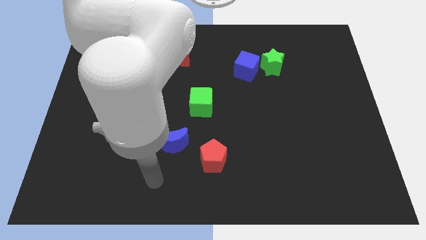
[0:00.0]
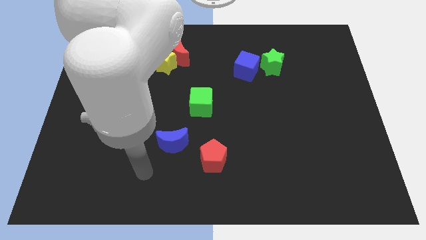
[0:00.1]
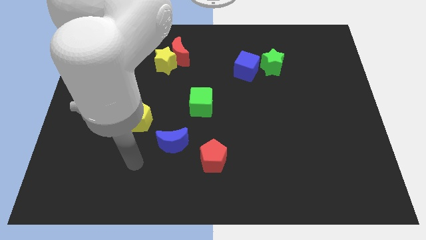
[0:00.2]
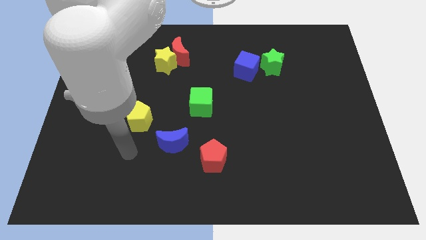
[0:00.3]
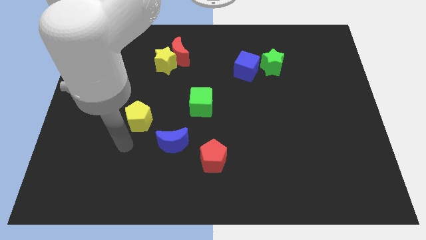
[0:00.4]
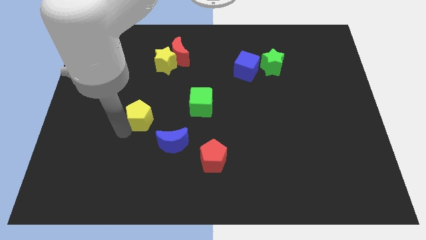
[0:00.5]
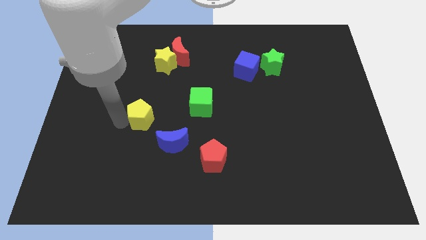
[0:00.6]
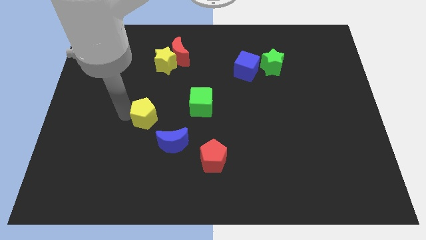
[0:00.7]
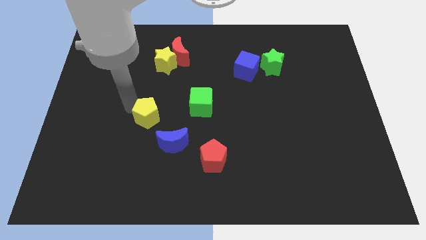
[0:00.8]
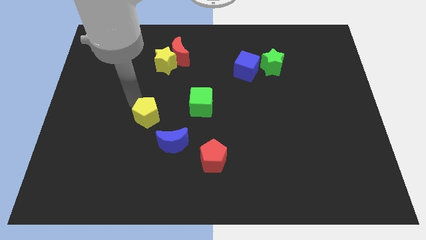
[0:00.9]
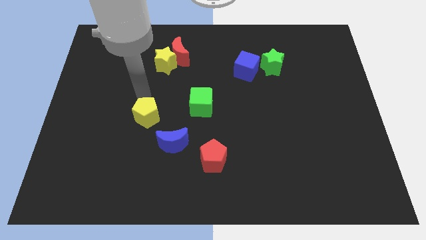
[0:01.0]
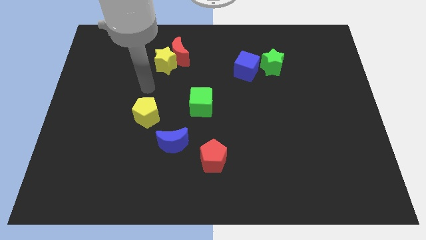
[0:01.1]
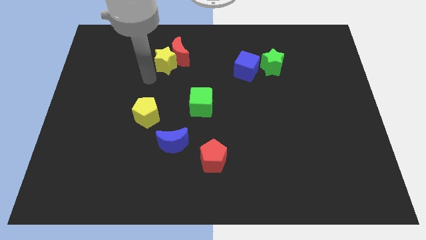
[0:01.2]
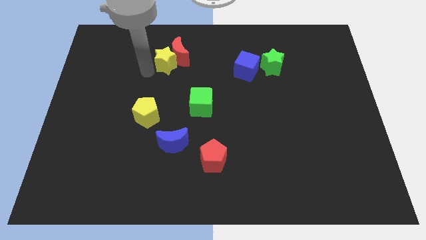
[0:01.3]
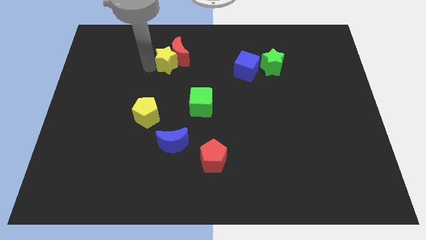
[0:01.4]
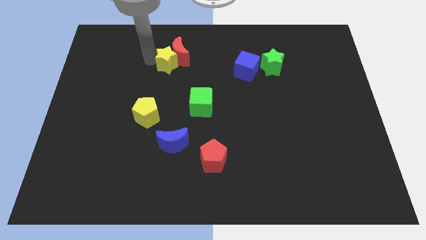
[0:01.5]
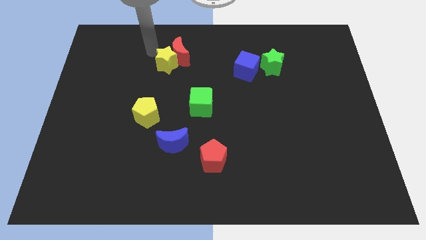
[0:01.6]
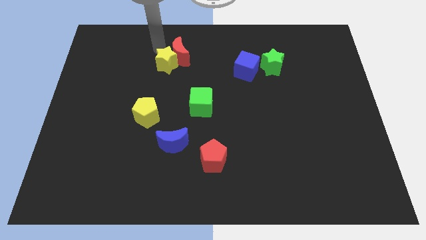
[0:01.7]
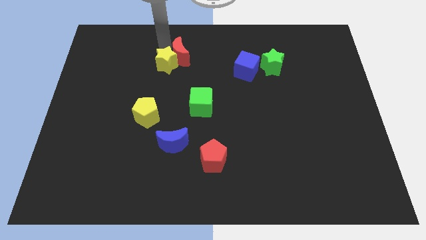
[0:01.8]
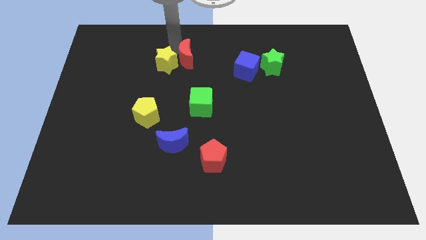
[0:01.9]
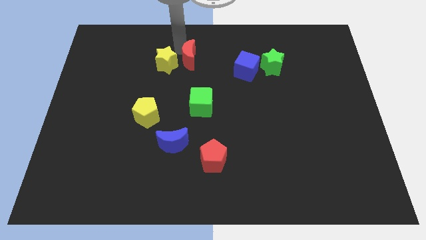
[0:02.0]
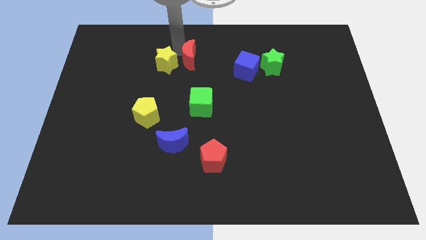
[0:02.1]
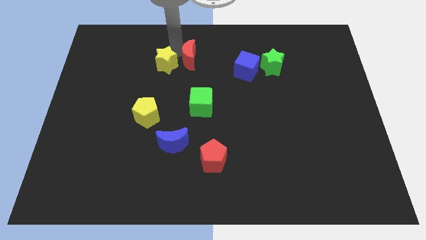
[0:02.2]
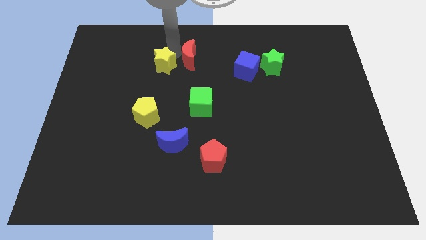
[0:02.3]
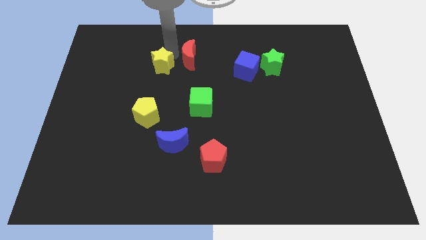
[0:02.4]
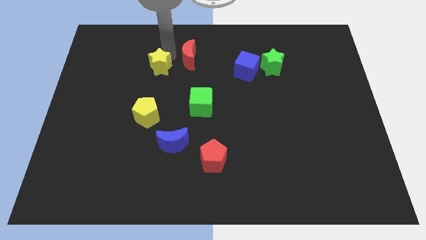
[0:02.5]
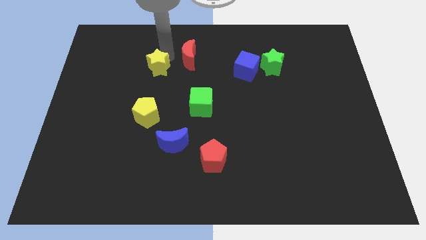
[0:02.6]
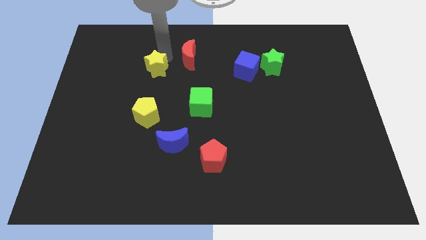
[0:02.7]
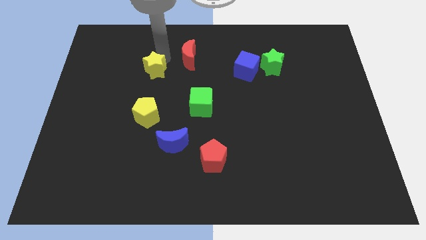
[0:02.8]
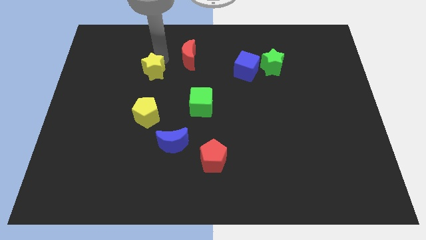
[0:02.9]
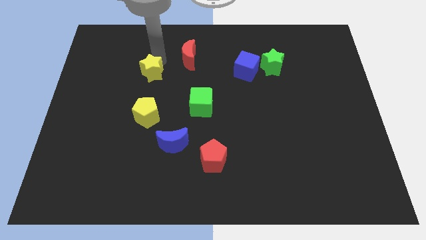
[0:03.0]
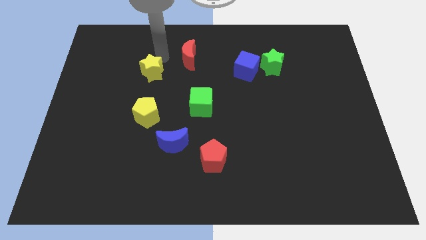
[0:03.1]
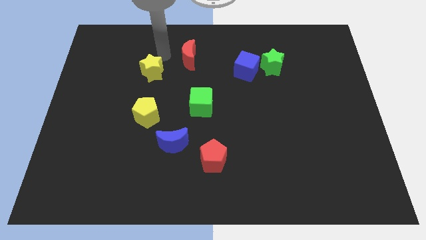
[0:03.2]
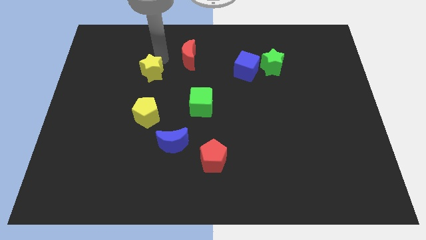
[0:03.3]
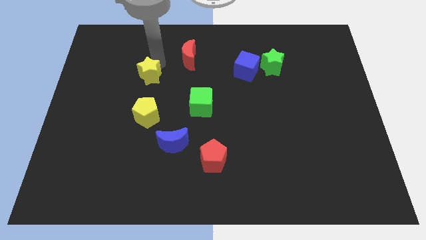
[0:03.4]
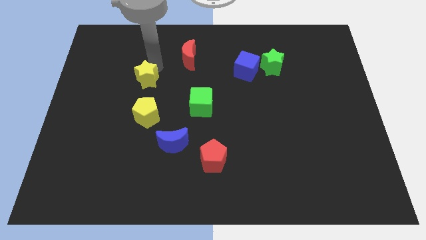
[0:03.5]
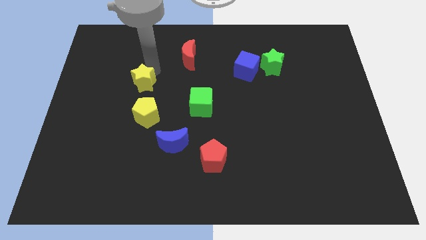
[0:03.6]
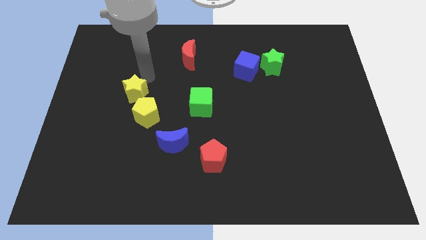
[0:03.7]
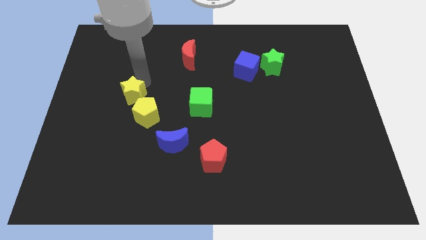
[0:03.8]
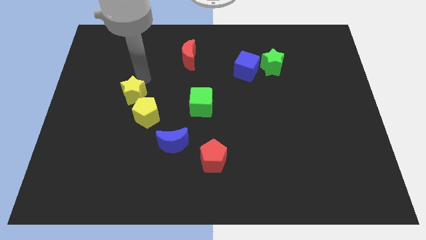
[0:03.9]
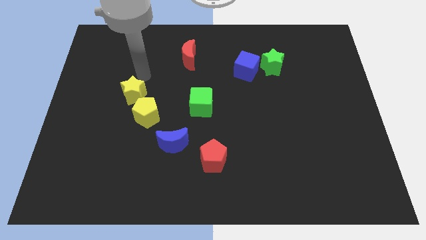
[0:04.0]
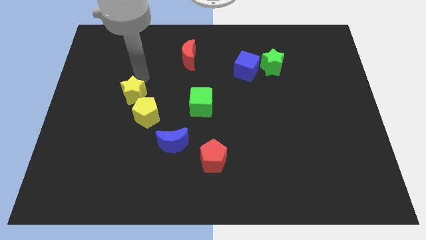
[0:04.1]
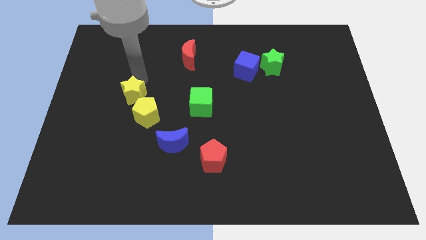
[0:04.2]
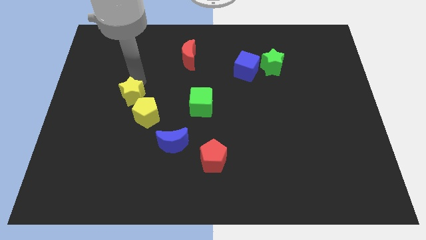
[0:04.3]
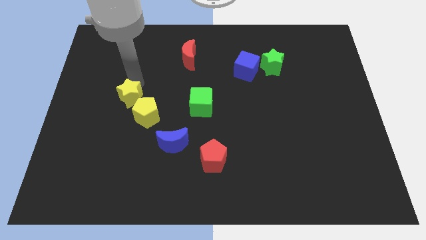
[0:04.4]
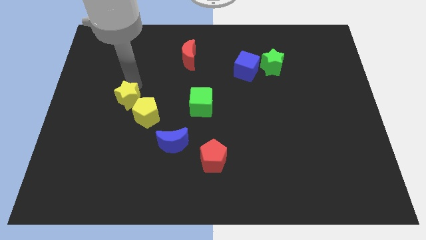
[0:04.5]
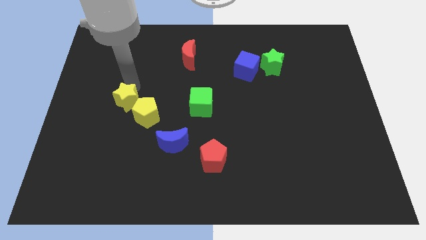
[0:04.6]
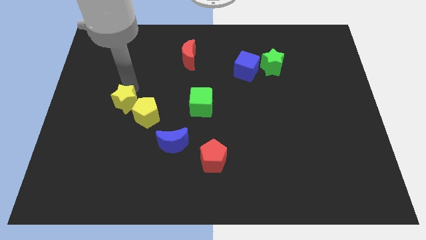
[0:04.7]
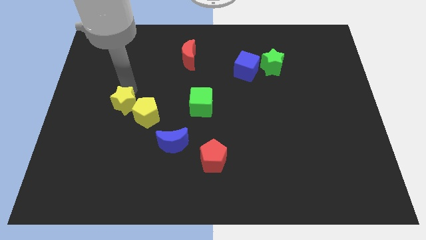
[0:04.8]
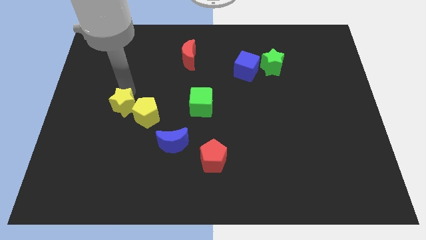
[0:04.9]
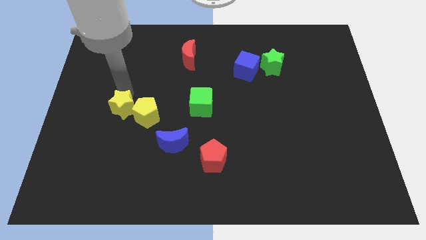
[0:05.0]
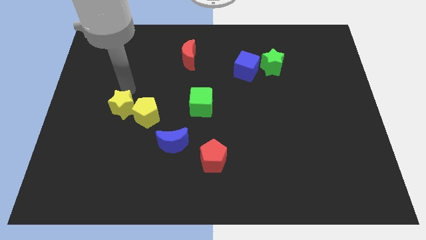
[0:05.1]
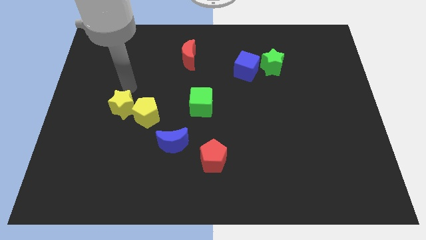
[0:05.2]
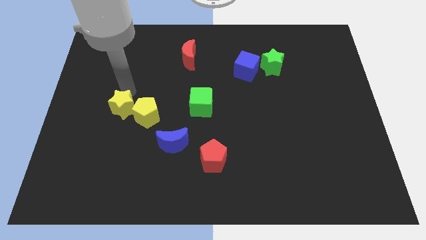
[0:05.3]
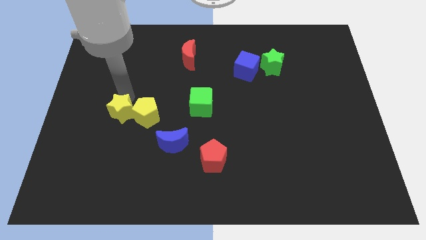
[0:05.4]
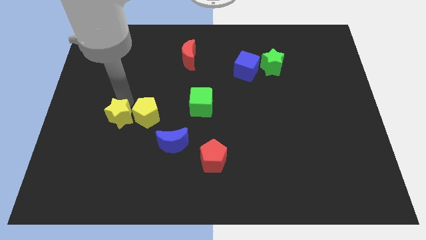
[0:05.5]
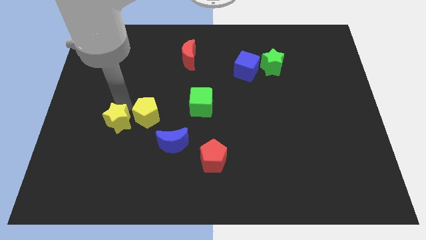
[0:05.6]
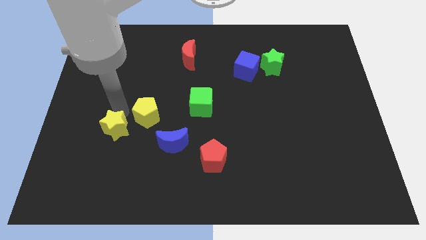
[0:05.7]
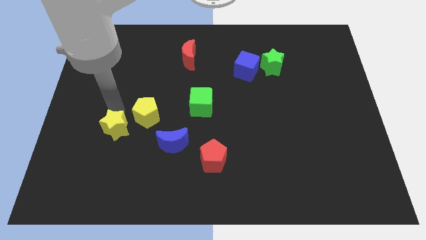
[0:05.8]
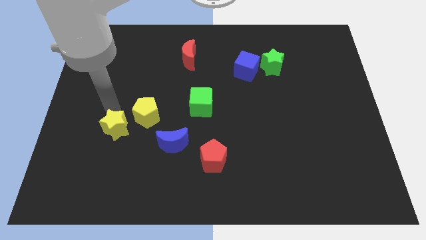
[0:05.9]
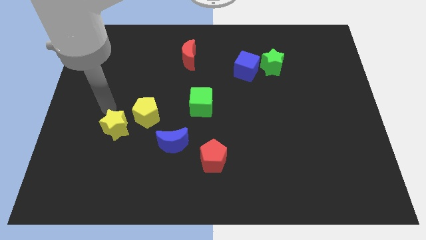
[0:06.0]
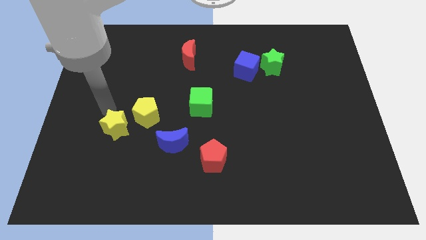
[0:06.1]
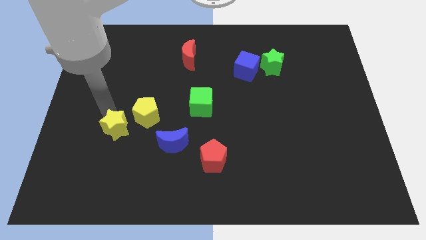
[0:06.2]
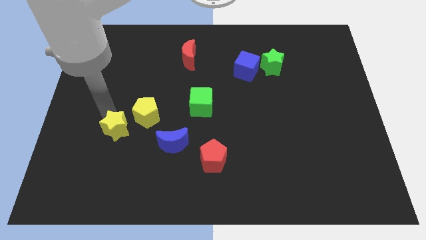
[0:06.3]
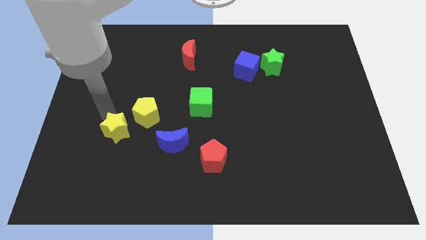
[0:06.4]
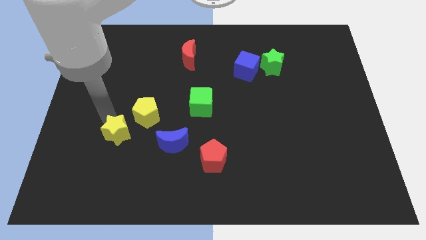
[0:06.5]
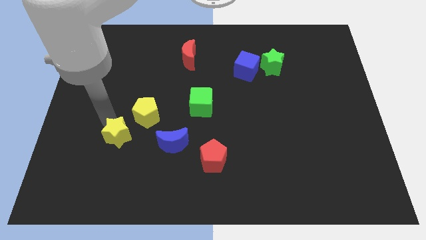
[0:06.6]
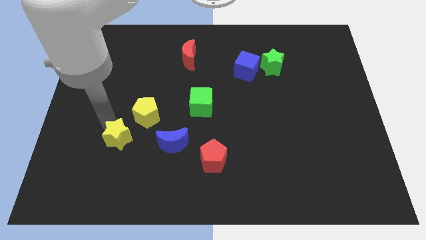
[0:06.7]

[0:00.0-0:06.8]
slide the yellow star downwards

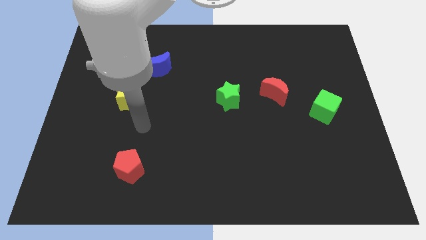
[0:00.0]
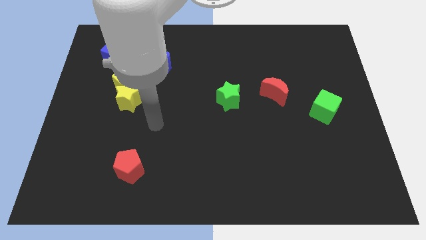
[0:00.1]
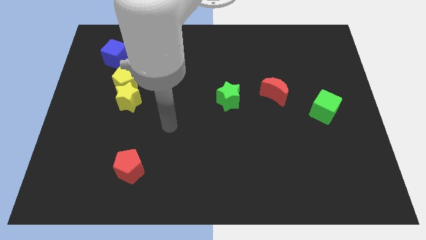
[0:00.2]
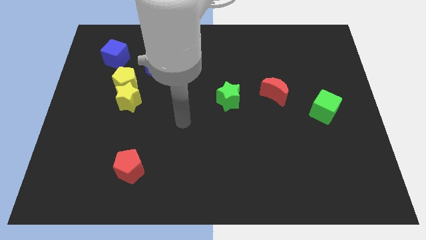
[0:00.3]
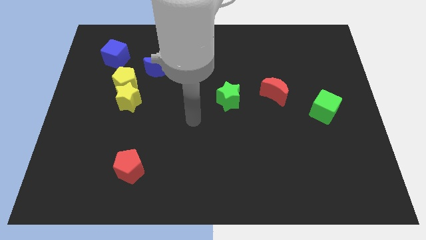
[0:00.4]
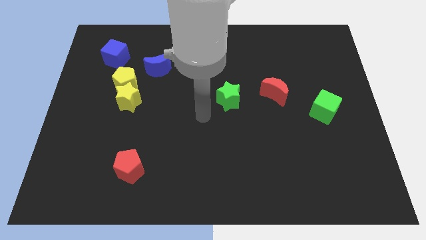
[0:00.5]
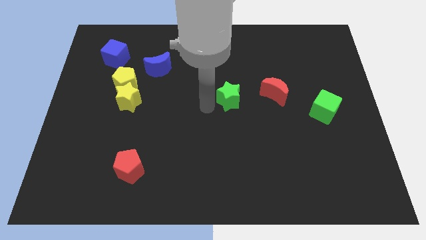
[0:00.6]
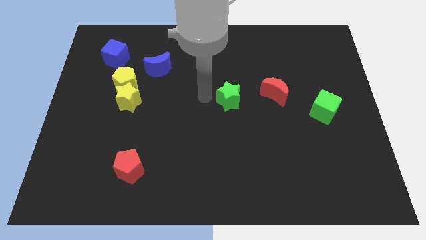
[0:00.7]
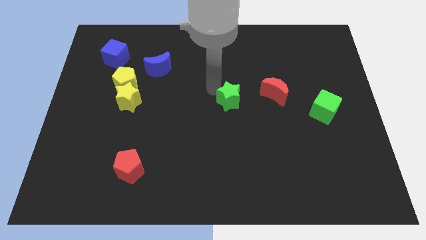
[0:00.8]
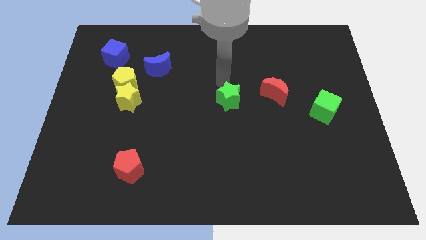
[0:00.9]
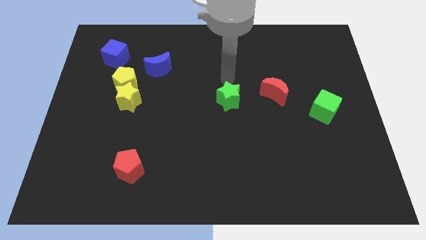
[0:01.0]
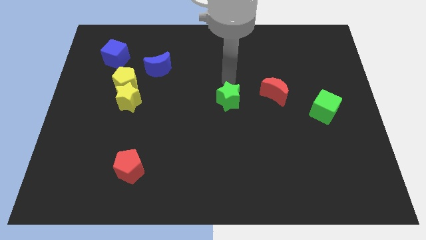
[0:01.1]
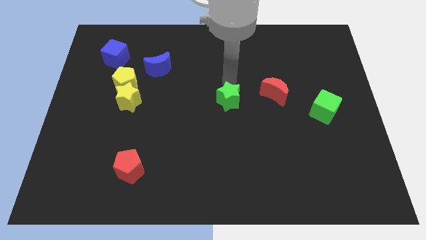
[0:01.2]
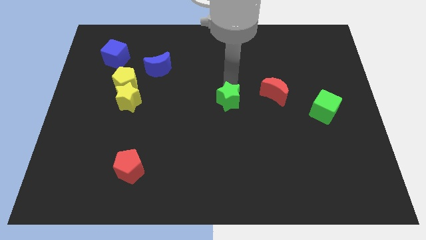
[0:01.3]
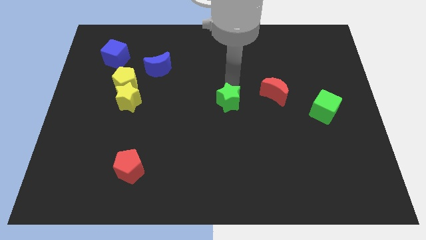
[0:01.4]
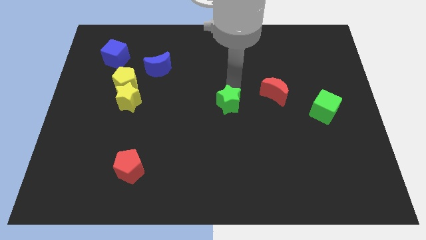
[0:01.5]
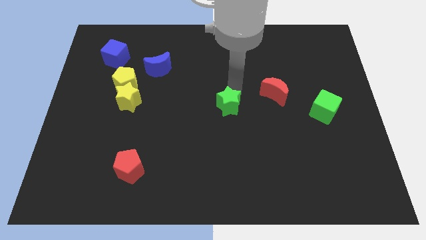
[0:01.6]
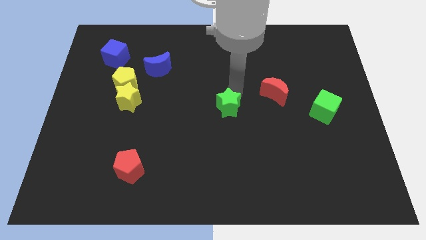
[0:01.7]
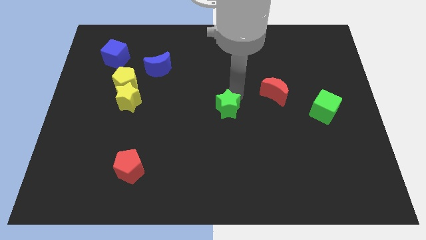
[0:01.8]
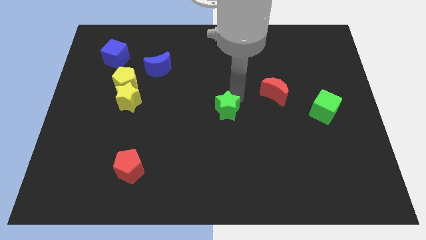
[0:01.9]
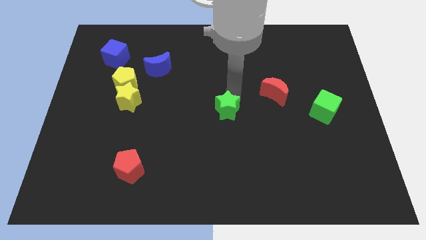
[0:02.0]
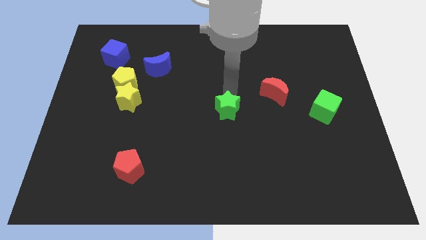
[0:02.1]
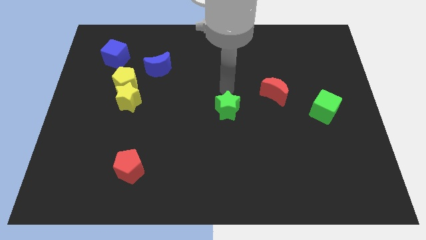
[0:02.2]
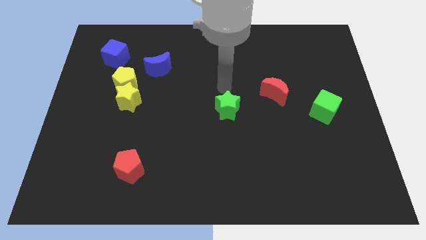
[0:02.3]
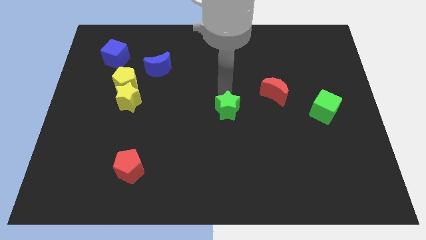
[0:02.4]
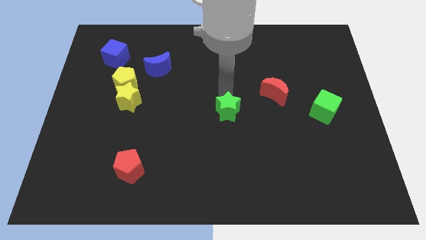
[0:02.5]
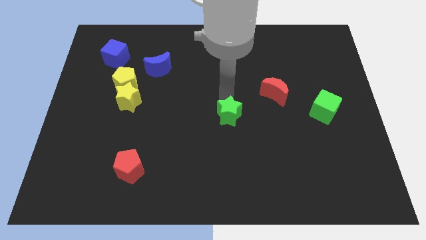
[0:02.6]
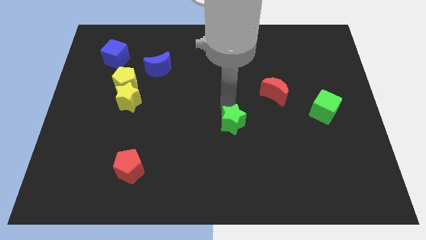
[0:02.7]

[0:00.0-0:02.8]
move the green star downwards slightly
